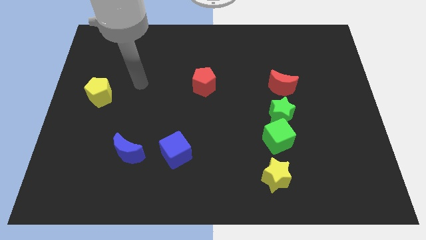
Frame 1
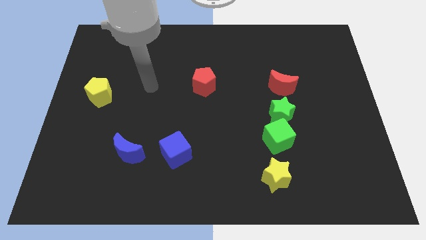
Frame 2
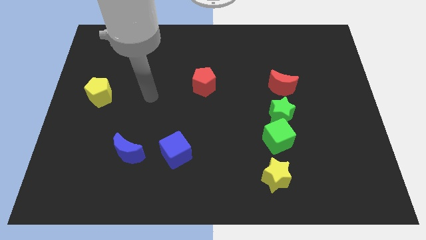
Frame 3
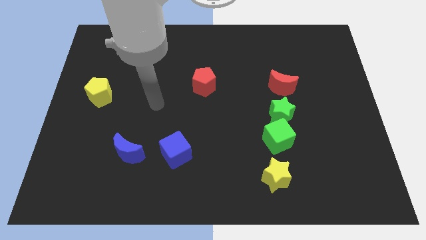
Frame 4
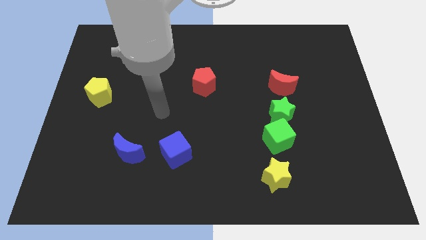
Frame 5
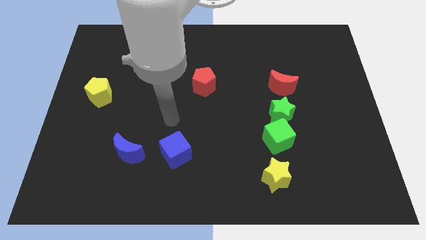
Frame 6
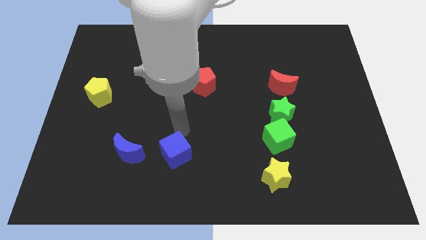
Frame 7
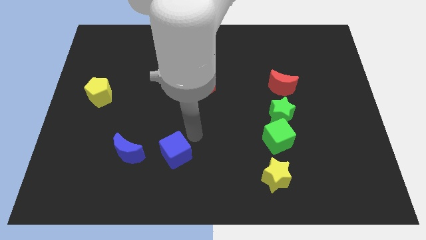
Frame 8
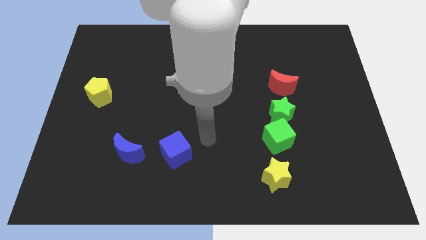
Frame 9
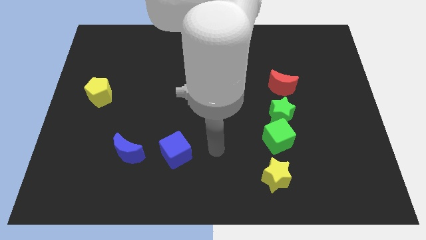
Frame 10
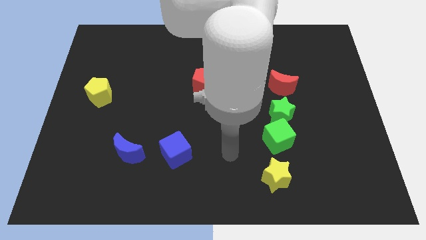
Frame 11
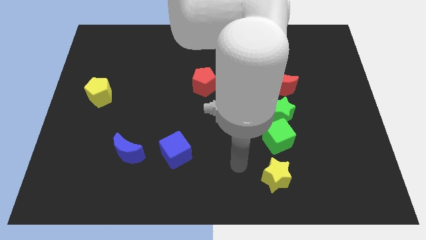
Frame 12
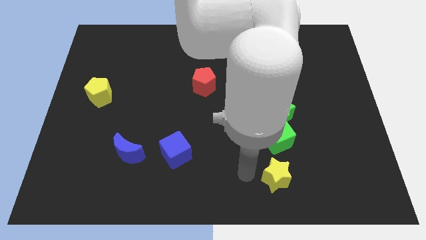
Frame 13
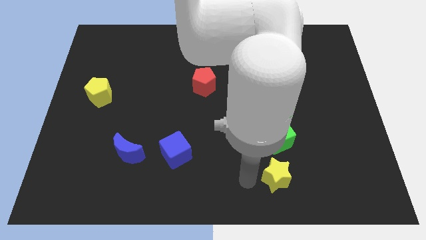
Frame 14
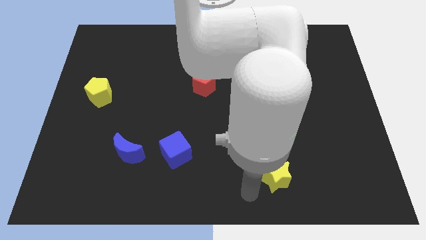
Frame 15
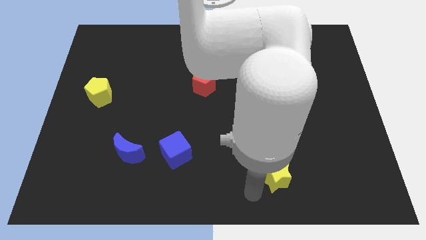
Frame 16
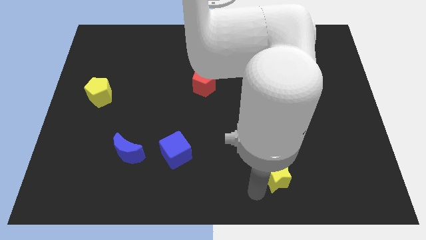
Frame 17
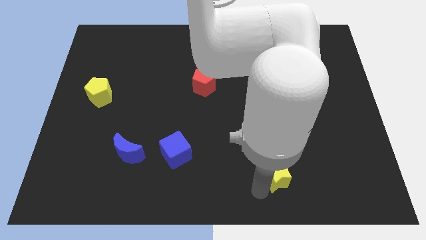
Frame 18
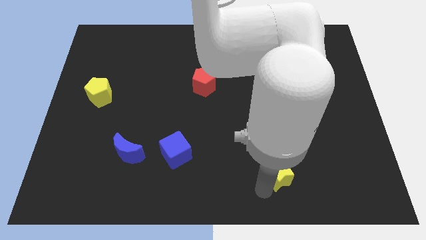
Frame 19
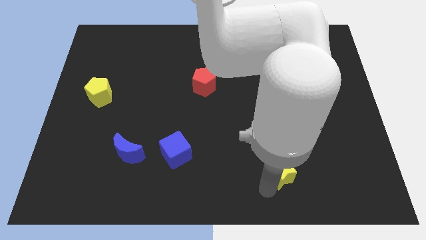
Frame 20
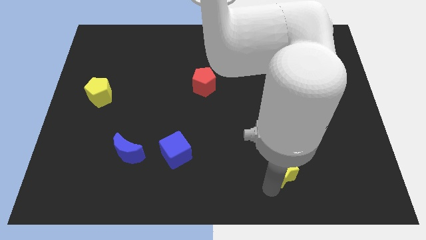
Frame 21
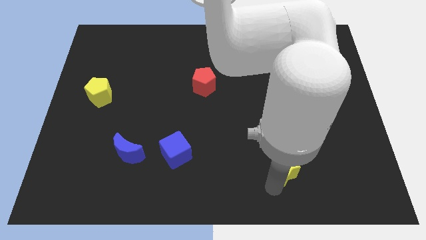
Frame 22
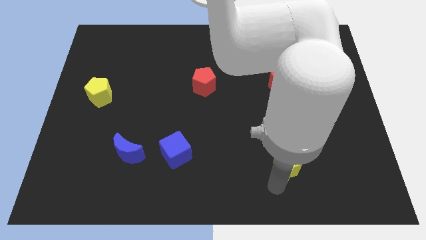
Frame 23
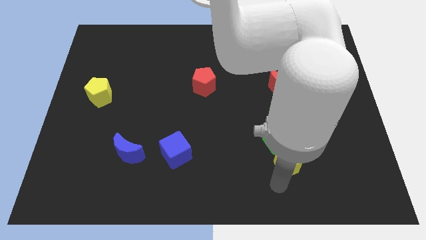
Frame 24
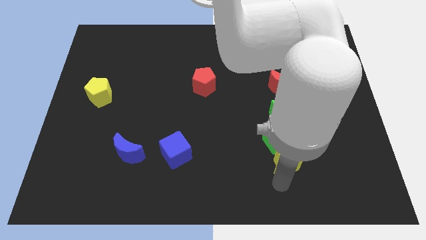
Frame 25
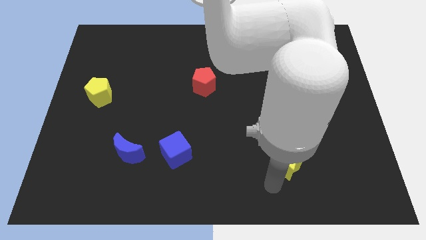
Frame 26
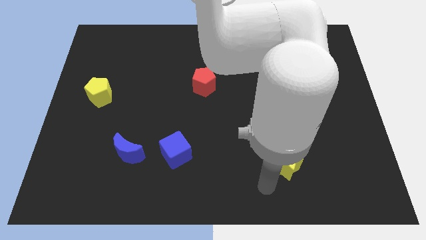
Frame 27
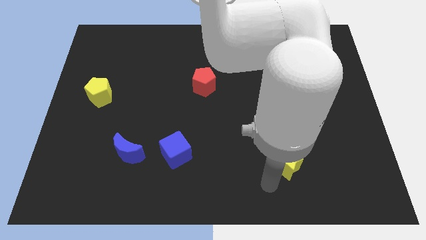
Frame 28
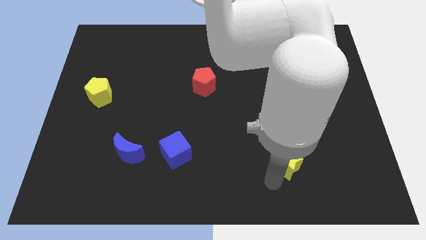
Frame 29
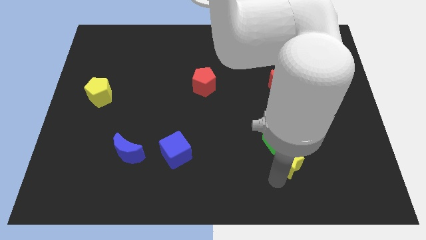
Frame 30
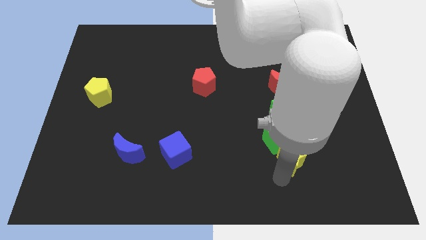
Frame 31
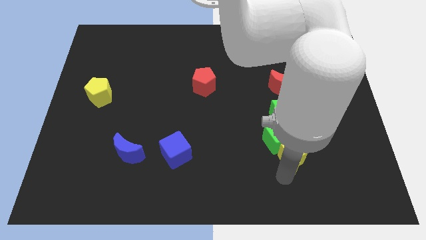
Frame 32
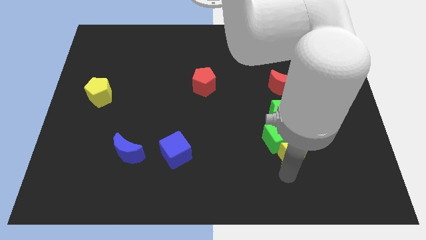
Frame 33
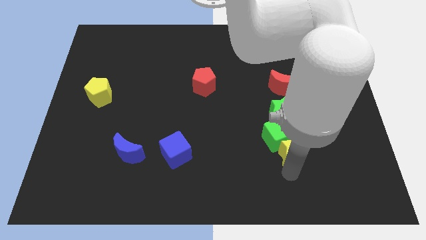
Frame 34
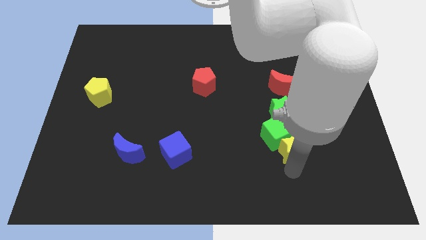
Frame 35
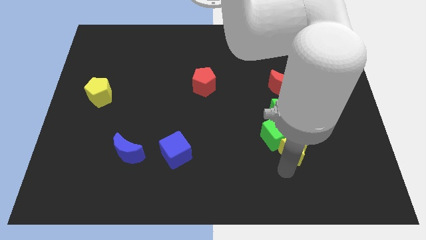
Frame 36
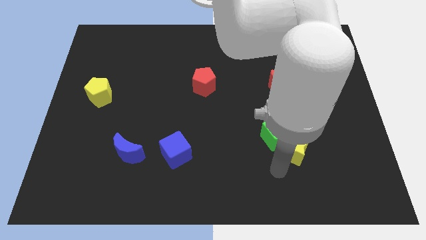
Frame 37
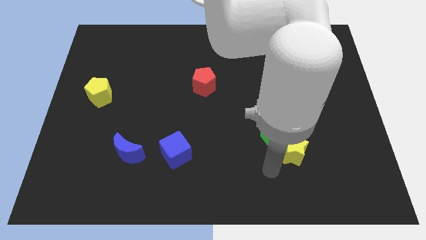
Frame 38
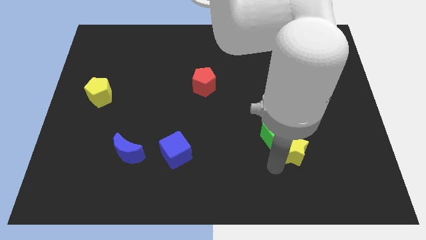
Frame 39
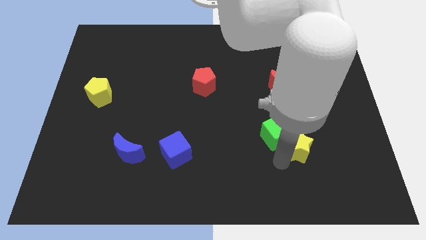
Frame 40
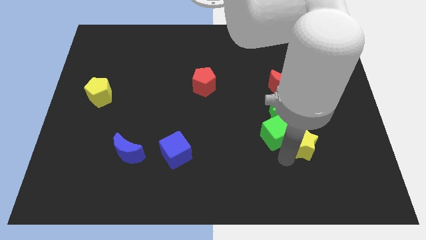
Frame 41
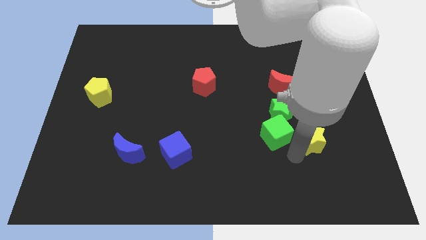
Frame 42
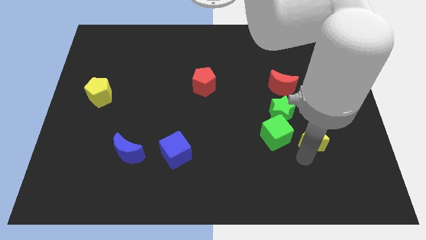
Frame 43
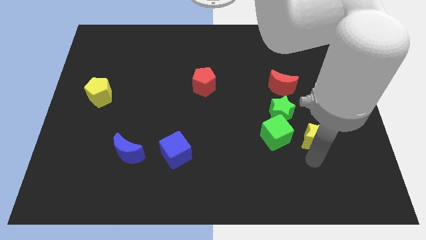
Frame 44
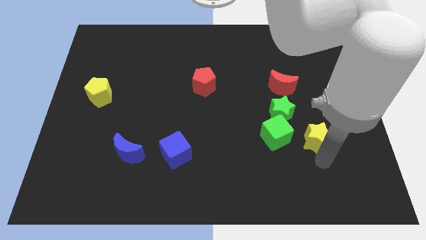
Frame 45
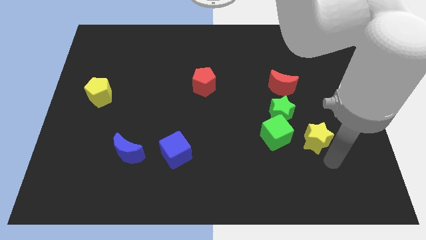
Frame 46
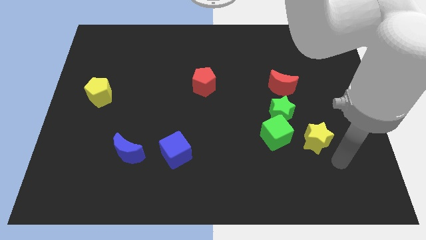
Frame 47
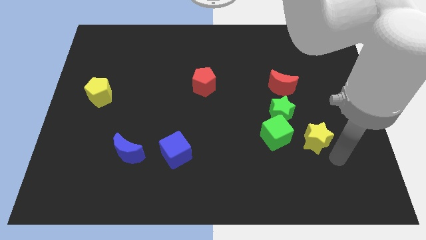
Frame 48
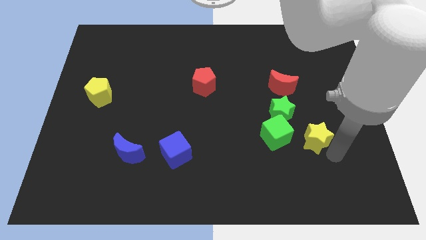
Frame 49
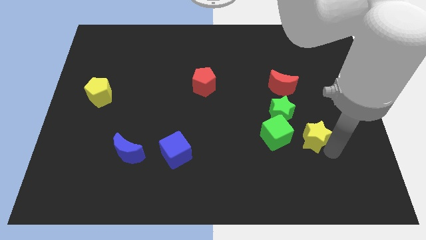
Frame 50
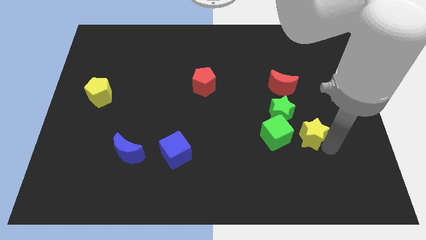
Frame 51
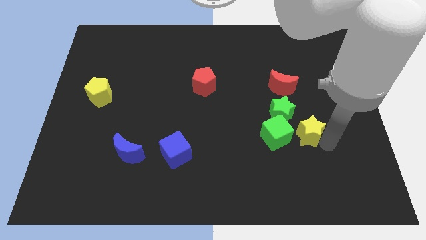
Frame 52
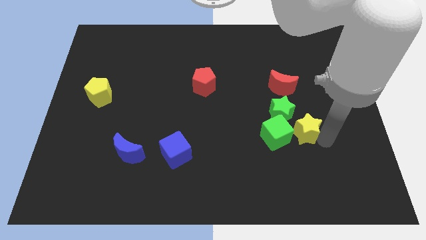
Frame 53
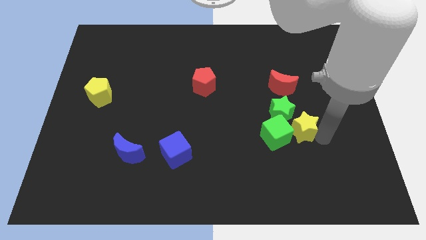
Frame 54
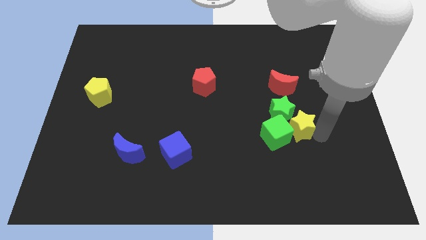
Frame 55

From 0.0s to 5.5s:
put the yellow star to the green star

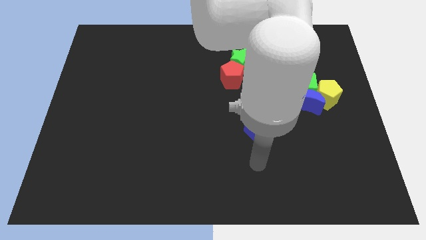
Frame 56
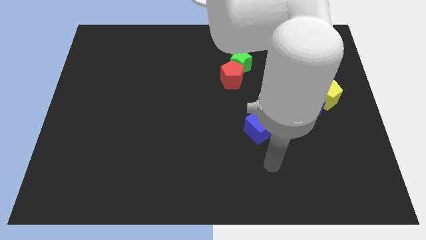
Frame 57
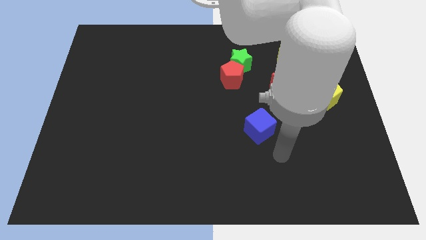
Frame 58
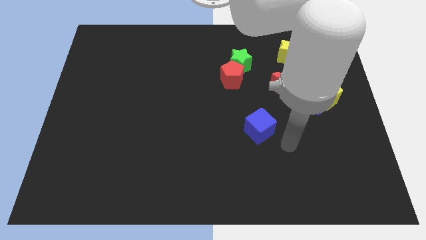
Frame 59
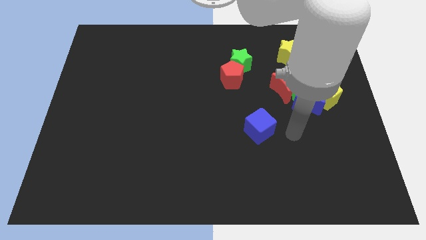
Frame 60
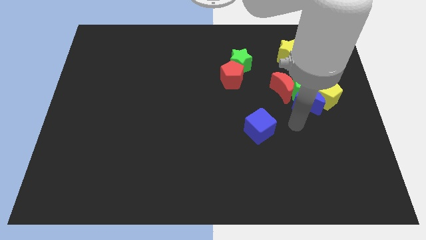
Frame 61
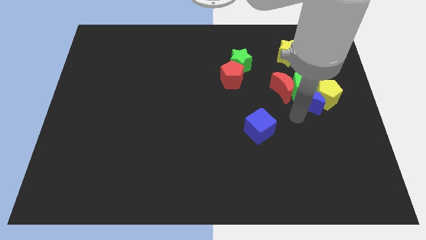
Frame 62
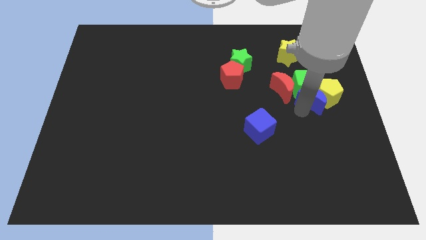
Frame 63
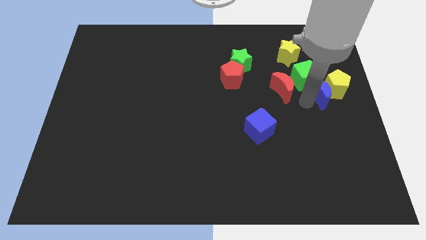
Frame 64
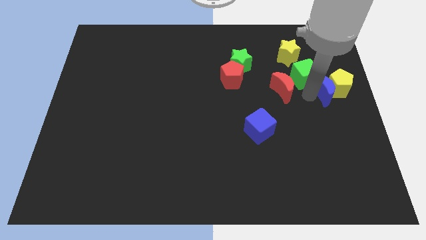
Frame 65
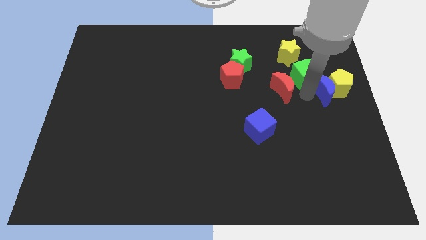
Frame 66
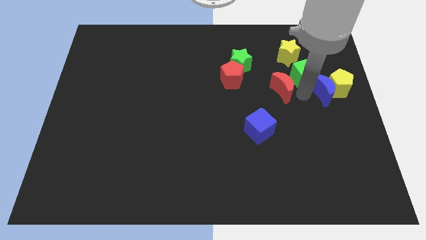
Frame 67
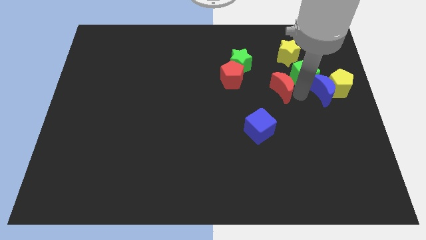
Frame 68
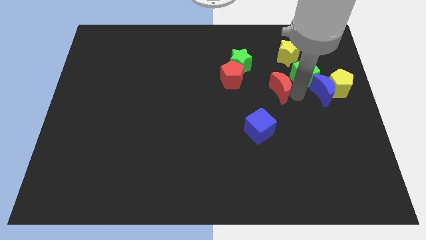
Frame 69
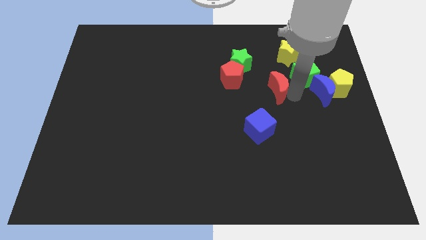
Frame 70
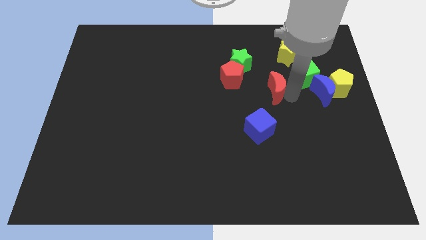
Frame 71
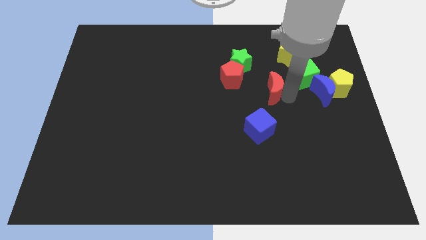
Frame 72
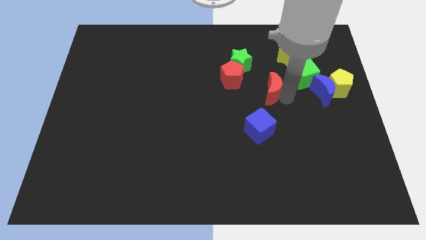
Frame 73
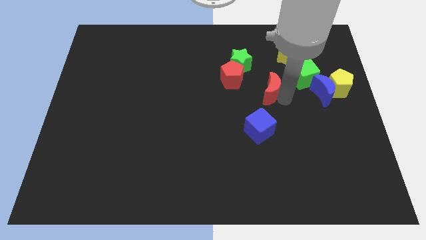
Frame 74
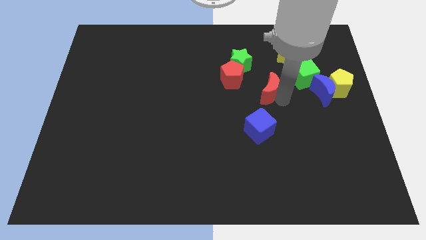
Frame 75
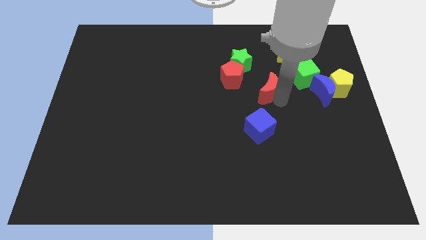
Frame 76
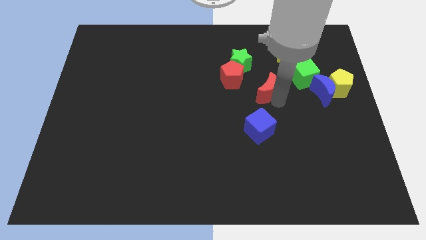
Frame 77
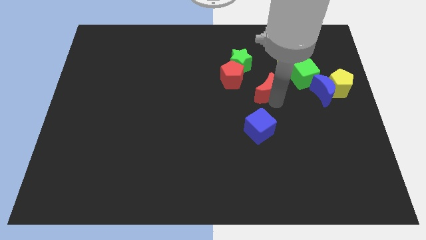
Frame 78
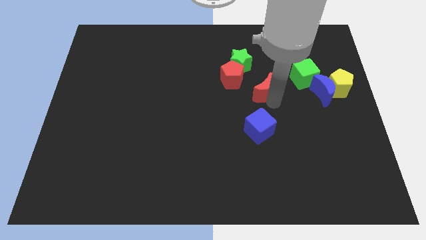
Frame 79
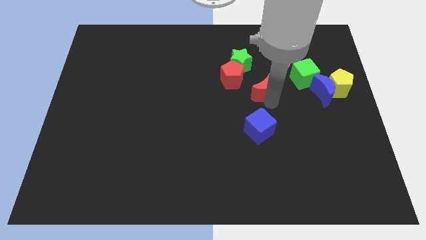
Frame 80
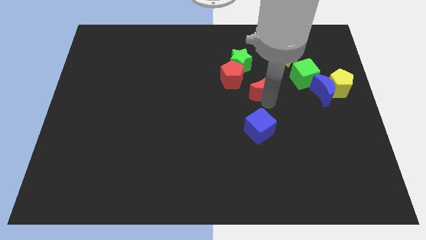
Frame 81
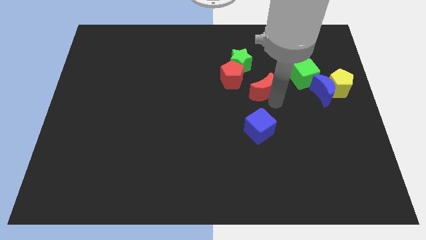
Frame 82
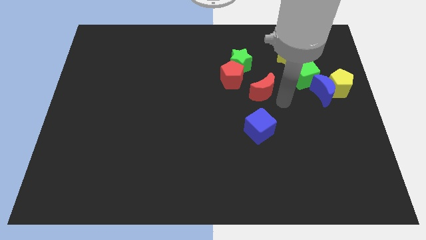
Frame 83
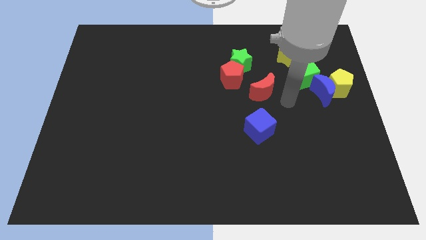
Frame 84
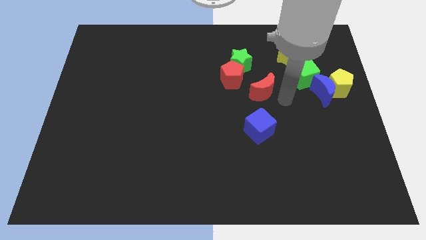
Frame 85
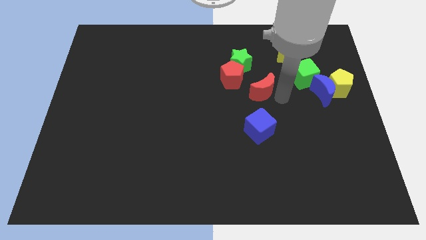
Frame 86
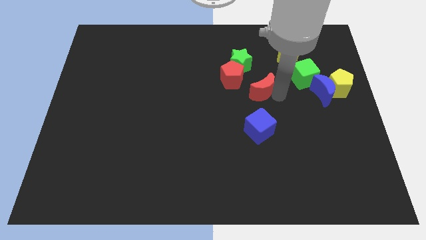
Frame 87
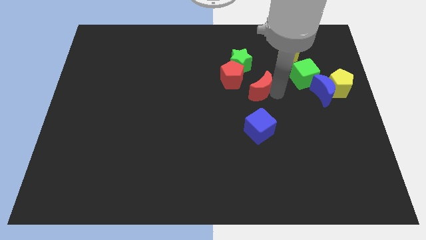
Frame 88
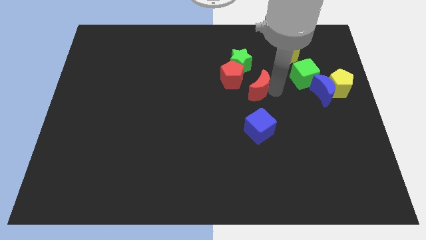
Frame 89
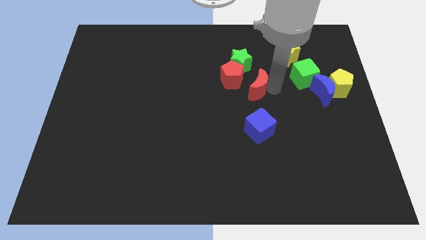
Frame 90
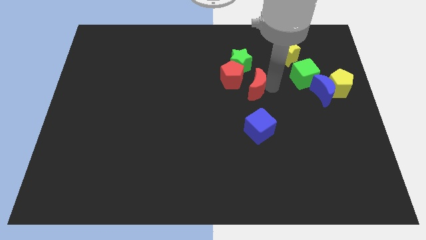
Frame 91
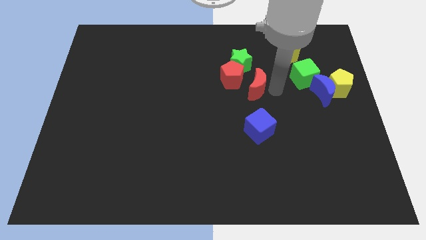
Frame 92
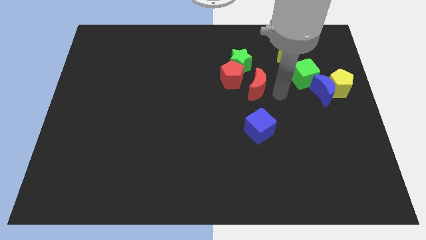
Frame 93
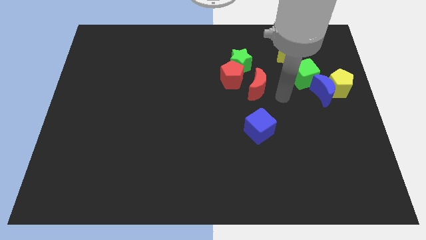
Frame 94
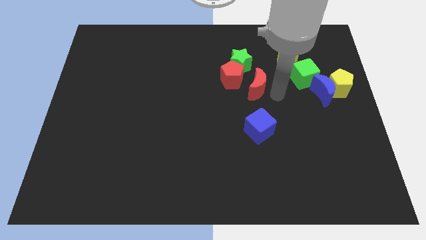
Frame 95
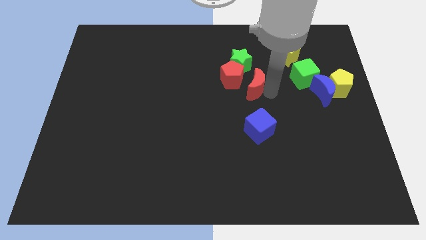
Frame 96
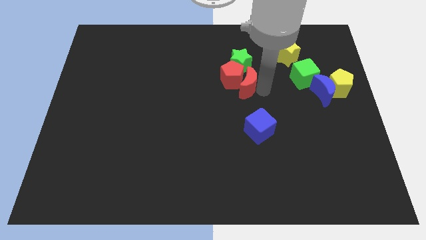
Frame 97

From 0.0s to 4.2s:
push the red moon close to the red pentagon
